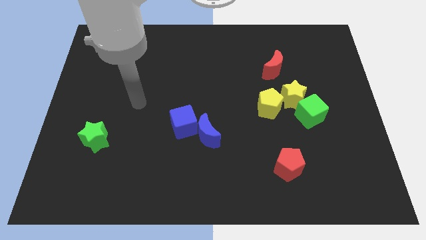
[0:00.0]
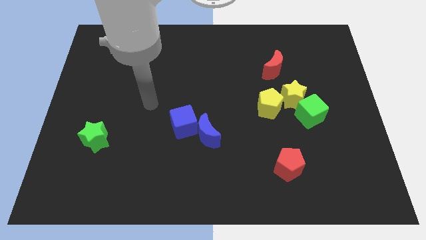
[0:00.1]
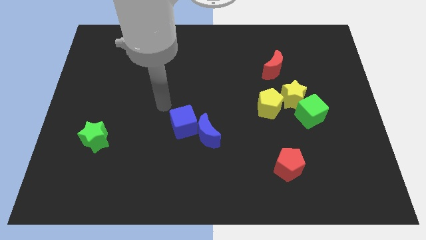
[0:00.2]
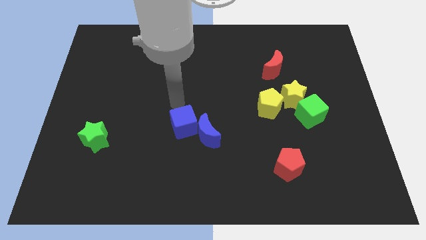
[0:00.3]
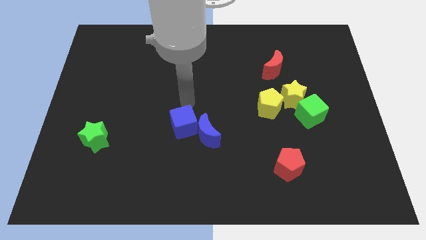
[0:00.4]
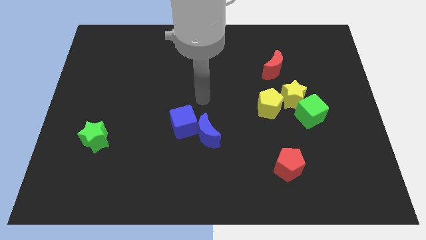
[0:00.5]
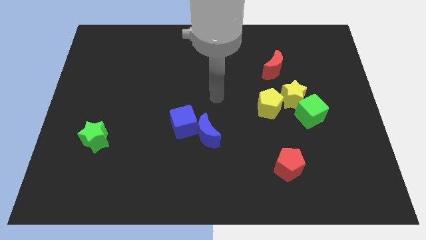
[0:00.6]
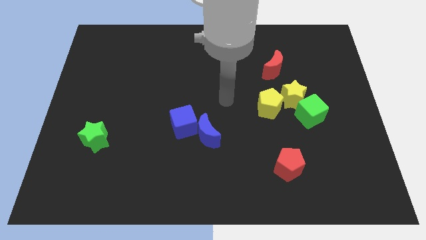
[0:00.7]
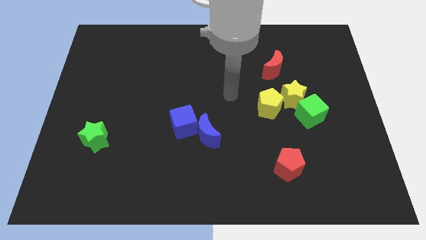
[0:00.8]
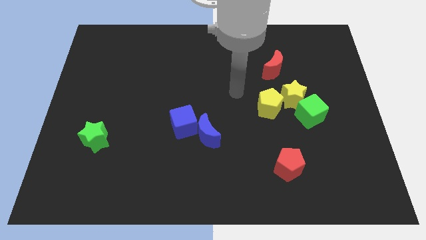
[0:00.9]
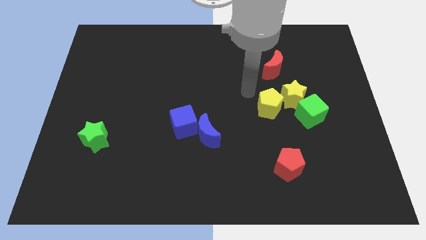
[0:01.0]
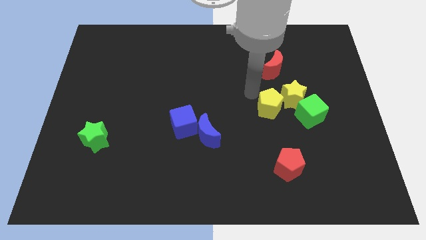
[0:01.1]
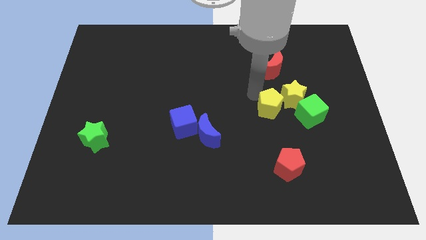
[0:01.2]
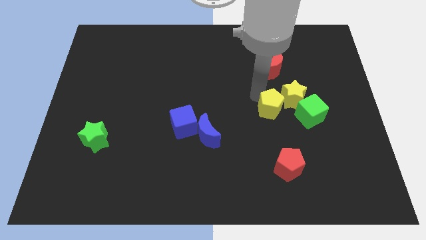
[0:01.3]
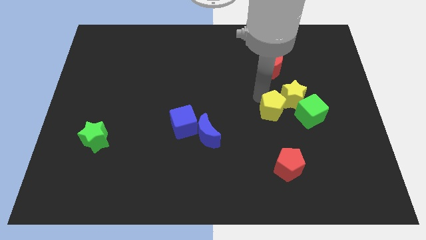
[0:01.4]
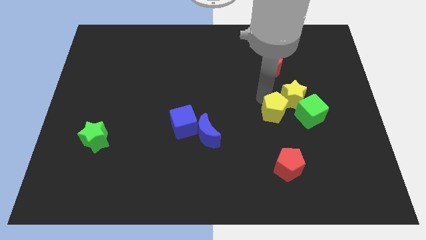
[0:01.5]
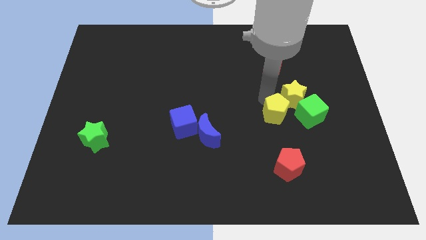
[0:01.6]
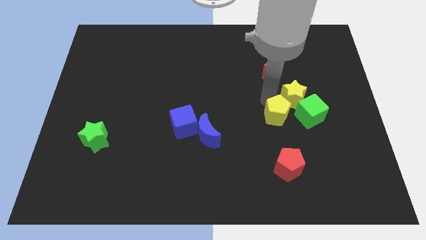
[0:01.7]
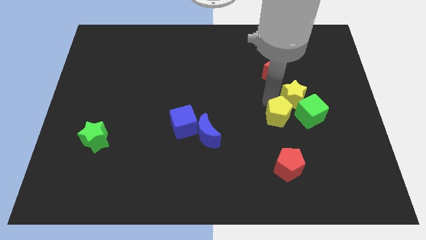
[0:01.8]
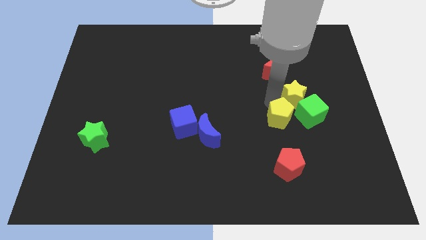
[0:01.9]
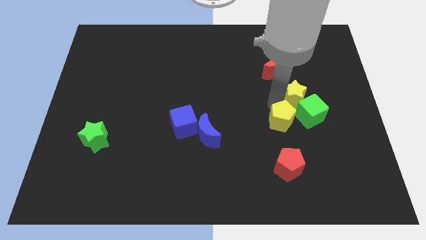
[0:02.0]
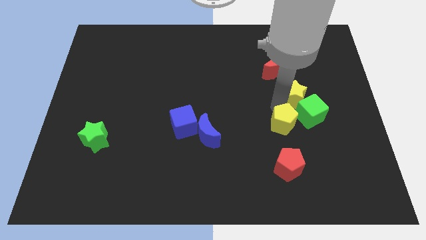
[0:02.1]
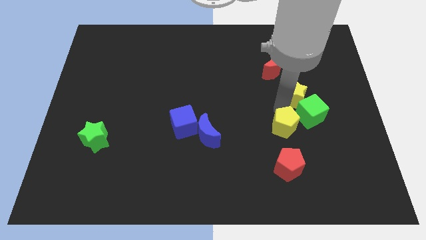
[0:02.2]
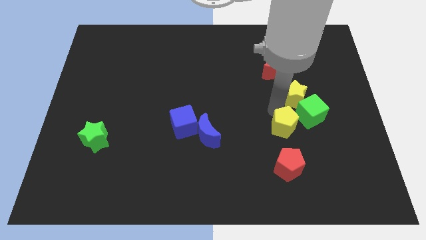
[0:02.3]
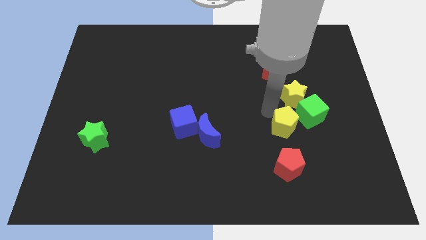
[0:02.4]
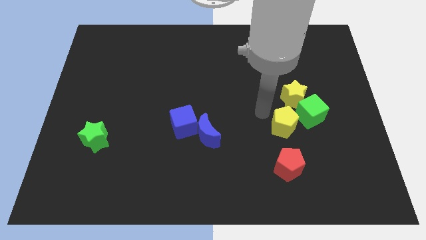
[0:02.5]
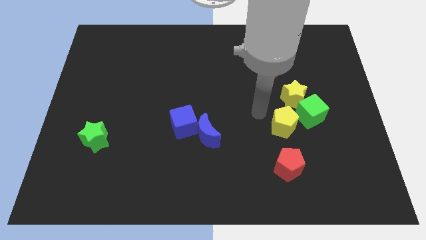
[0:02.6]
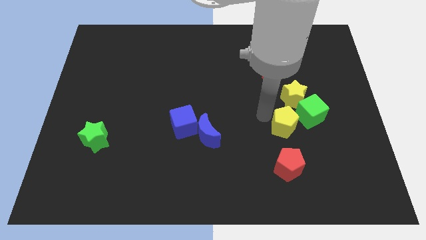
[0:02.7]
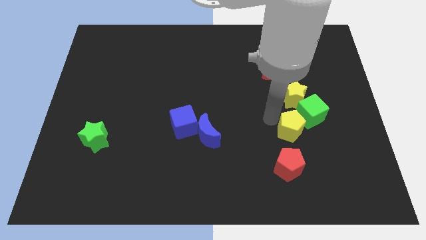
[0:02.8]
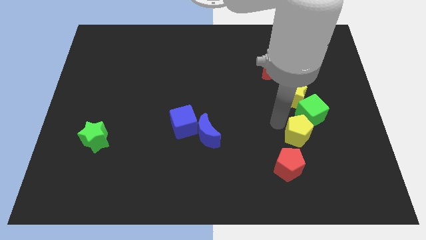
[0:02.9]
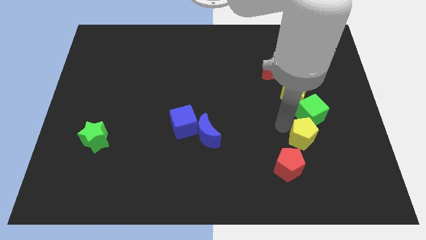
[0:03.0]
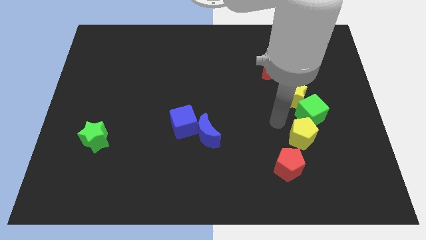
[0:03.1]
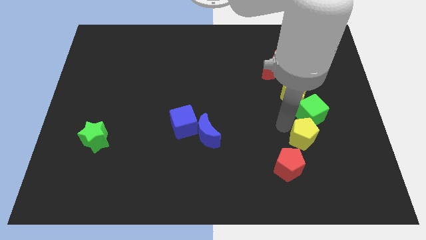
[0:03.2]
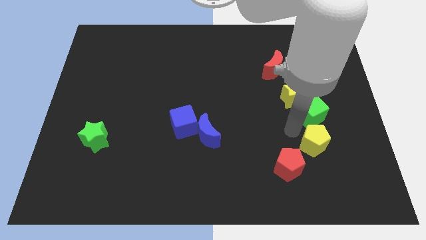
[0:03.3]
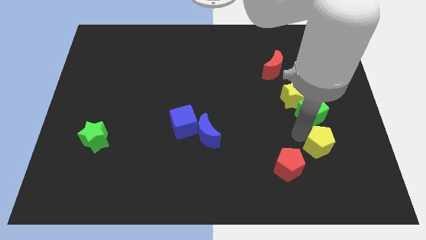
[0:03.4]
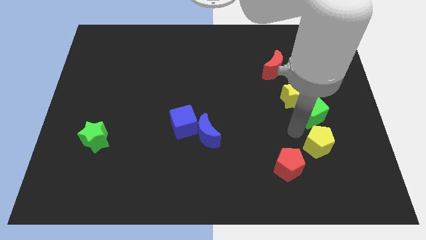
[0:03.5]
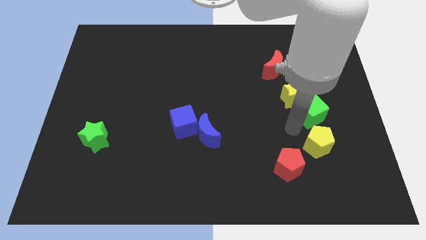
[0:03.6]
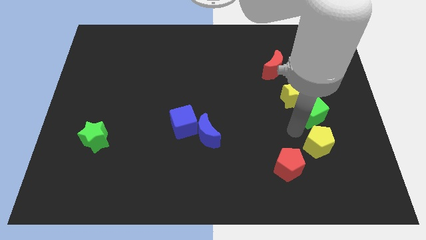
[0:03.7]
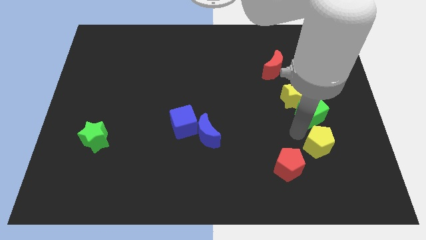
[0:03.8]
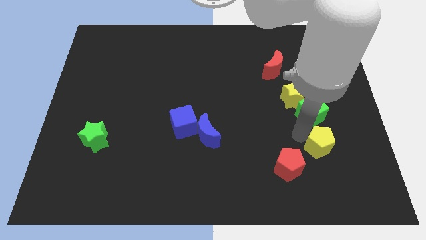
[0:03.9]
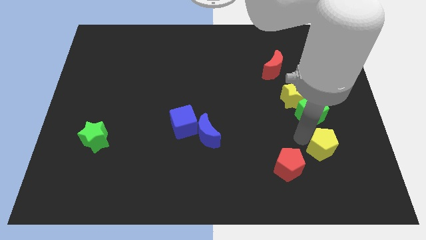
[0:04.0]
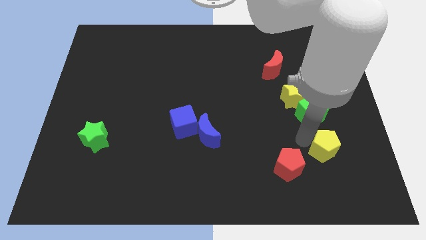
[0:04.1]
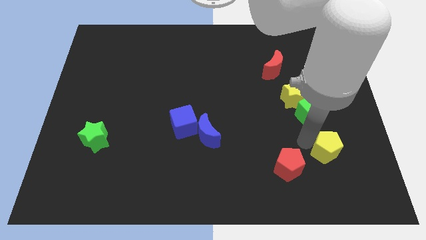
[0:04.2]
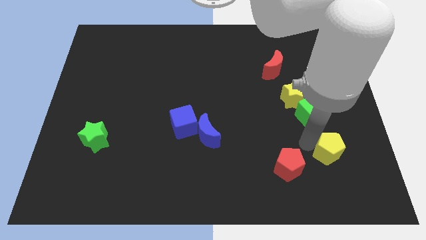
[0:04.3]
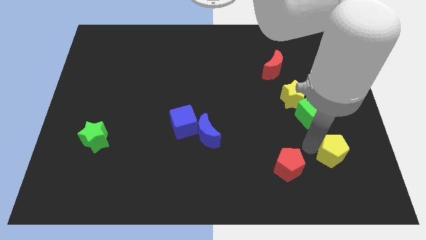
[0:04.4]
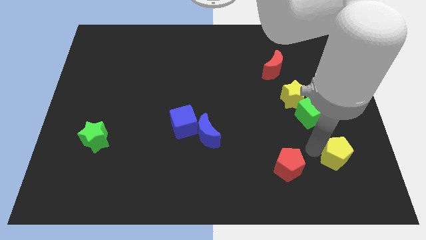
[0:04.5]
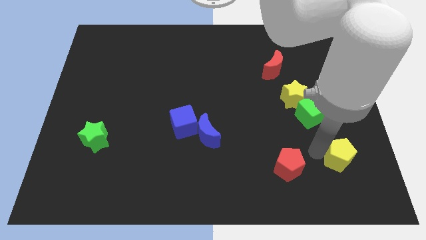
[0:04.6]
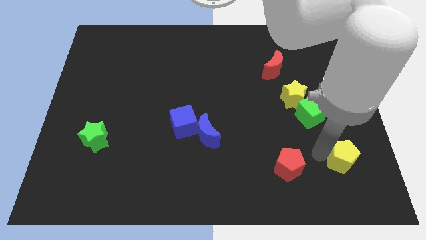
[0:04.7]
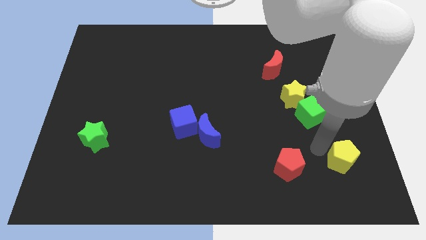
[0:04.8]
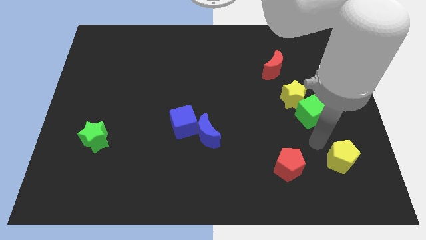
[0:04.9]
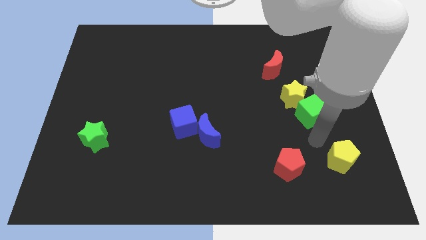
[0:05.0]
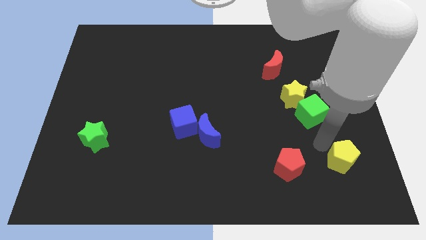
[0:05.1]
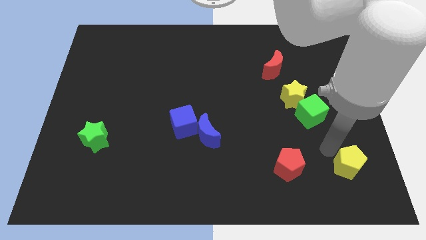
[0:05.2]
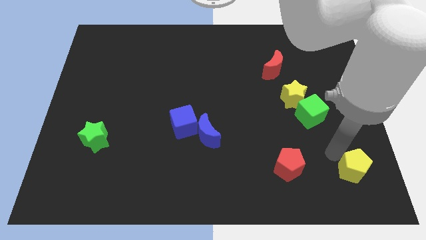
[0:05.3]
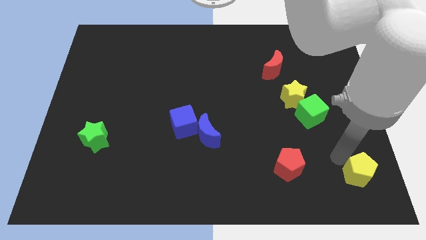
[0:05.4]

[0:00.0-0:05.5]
put the yellow pentagon to the bottom right of the board
